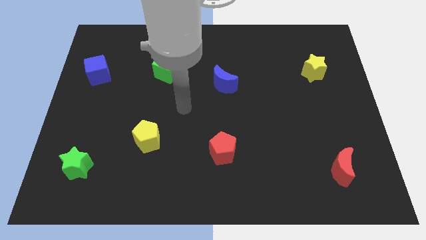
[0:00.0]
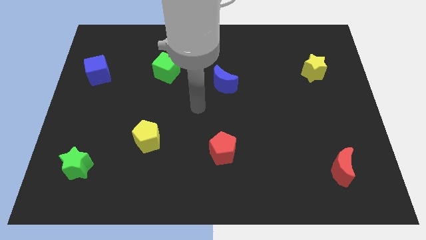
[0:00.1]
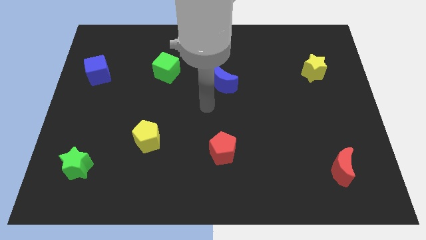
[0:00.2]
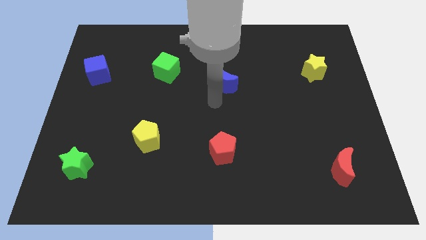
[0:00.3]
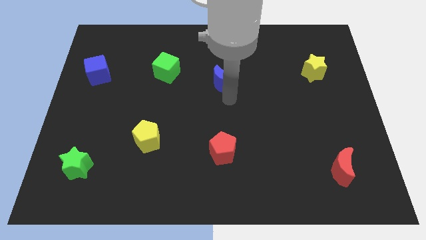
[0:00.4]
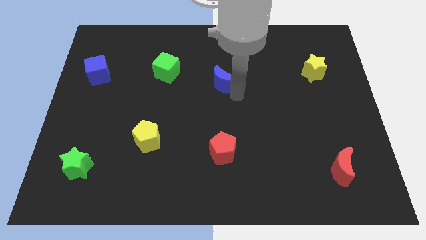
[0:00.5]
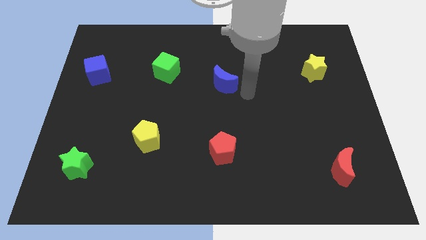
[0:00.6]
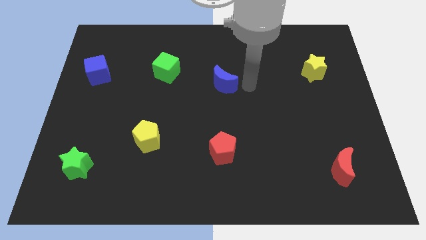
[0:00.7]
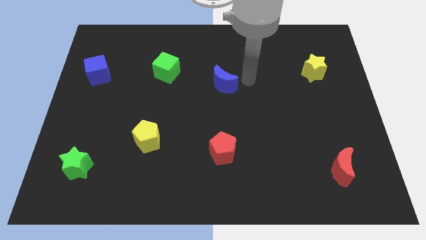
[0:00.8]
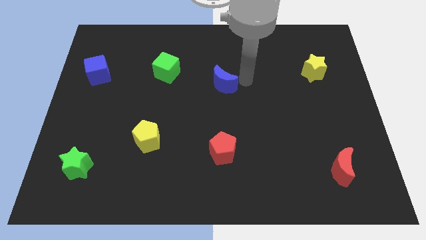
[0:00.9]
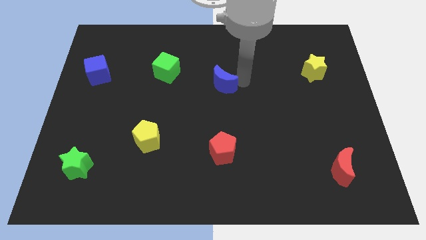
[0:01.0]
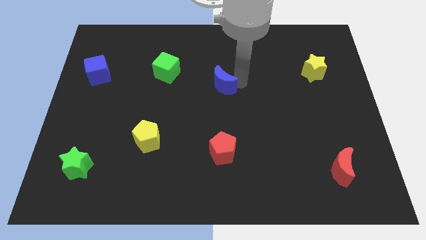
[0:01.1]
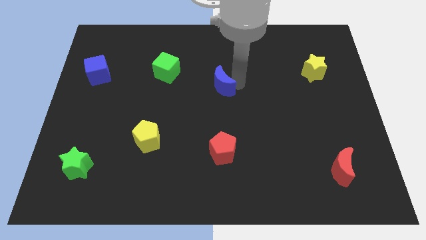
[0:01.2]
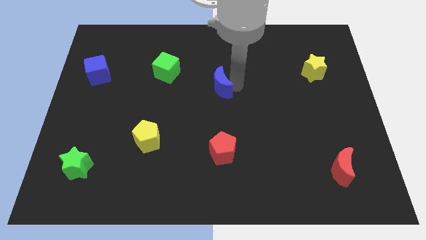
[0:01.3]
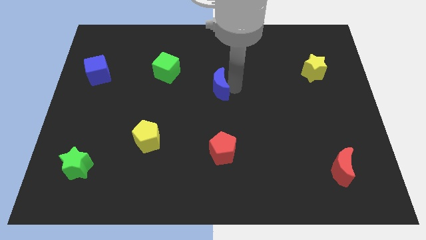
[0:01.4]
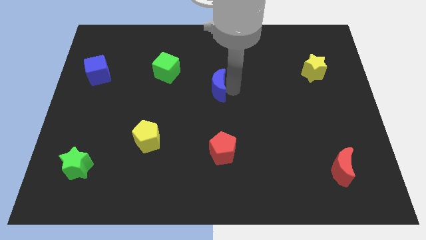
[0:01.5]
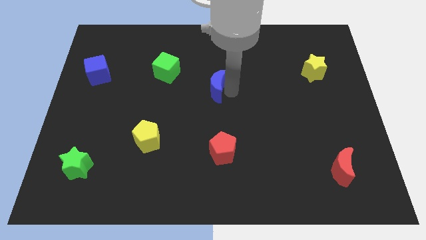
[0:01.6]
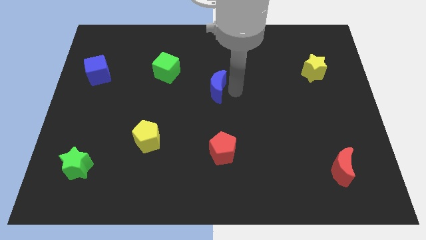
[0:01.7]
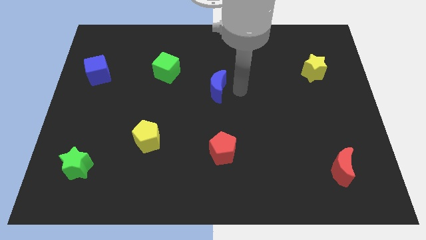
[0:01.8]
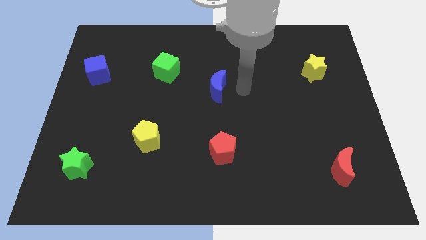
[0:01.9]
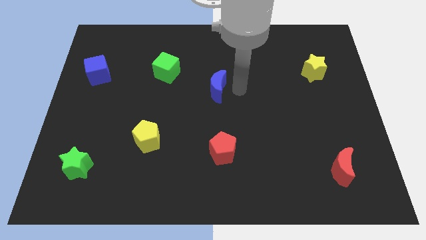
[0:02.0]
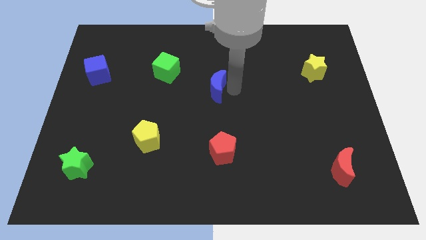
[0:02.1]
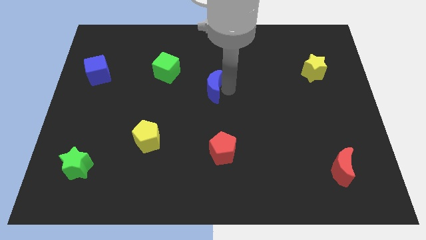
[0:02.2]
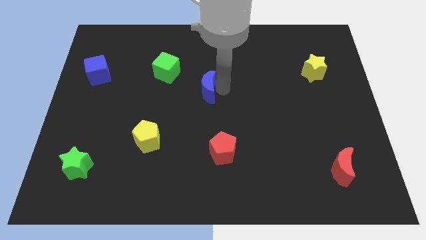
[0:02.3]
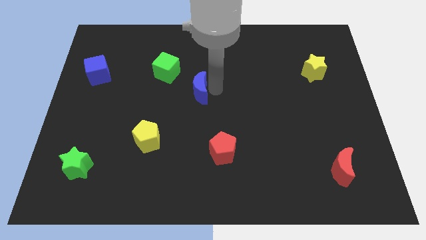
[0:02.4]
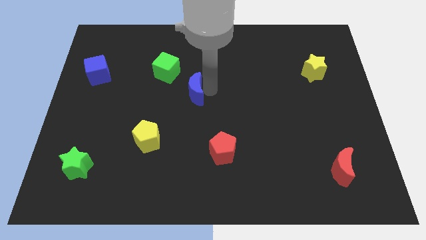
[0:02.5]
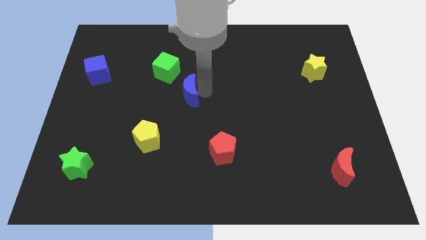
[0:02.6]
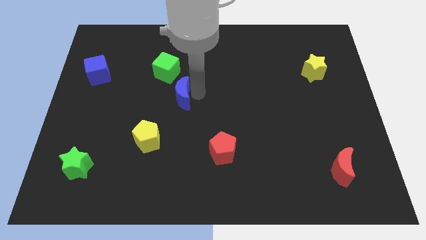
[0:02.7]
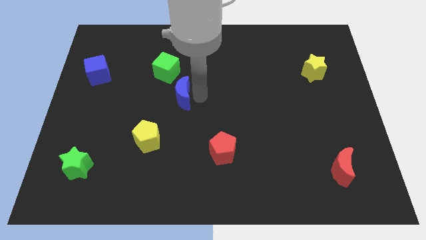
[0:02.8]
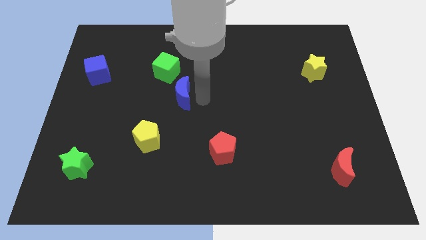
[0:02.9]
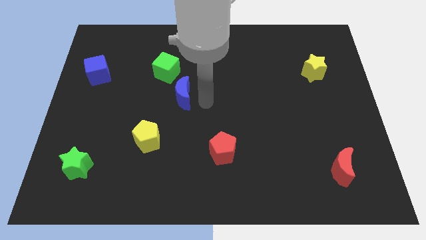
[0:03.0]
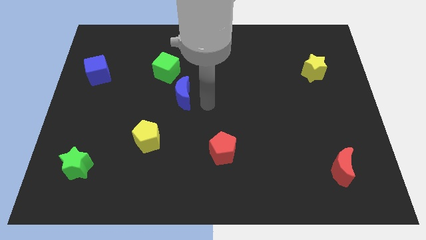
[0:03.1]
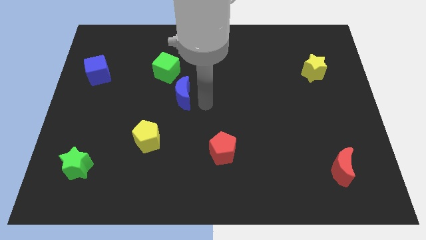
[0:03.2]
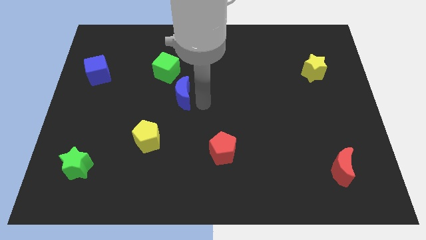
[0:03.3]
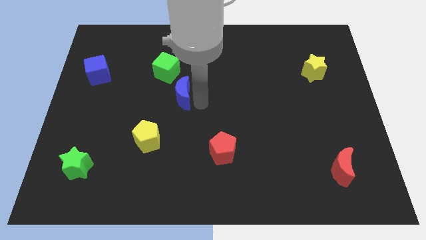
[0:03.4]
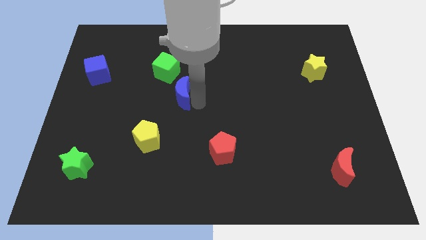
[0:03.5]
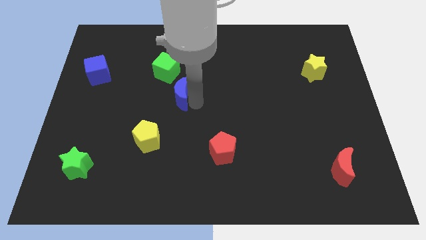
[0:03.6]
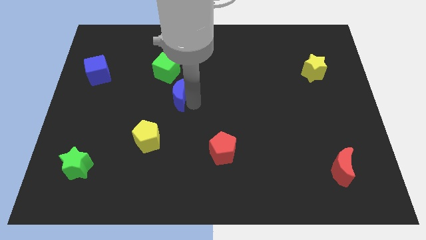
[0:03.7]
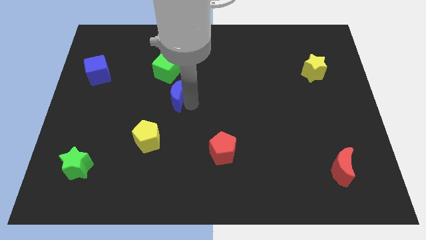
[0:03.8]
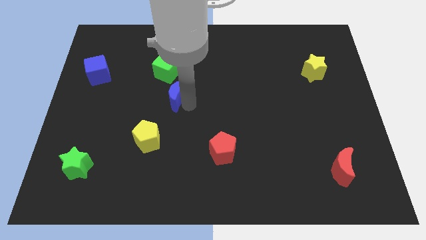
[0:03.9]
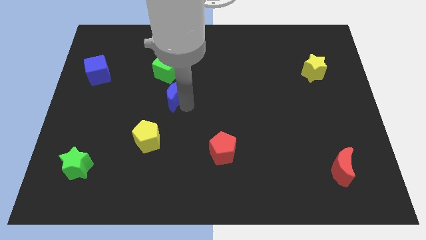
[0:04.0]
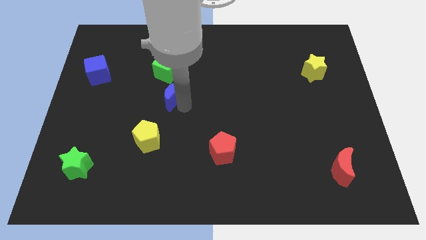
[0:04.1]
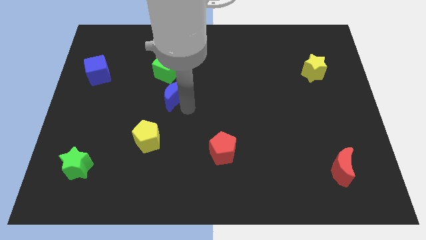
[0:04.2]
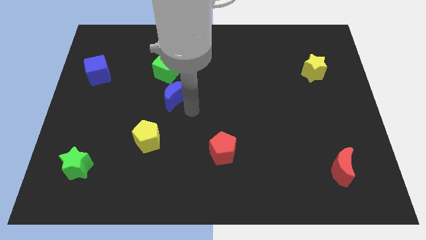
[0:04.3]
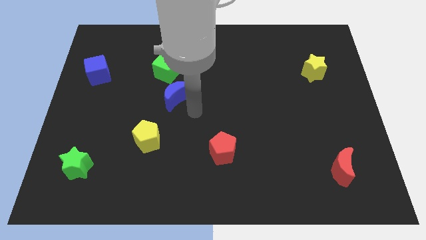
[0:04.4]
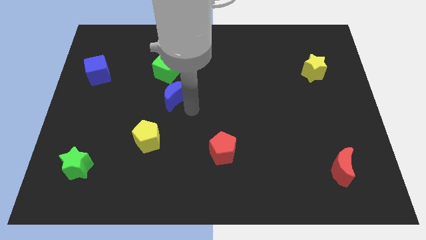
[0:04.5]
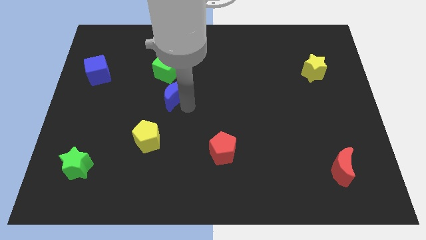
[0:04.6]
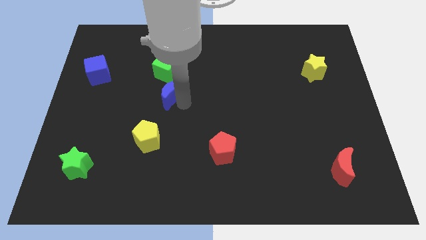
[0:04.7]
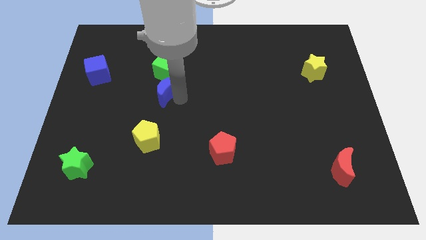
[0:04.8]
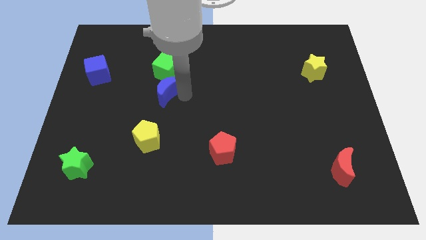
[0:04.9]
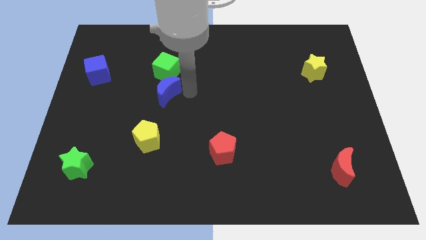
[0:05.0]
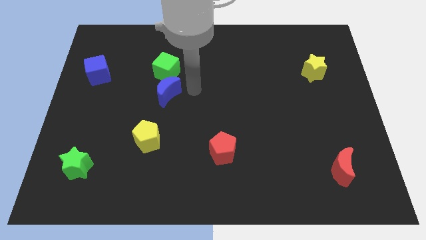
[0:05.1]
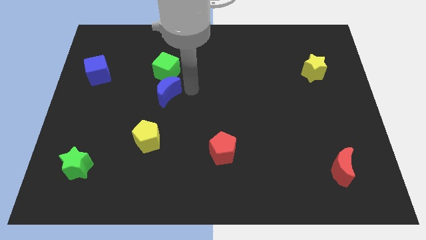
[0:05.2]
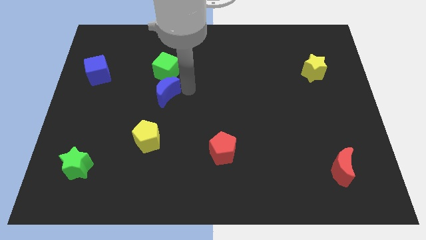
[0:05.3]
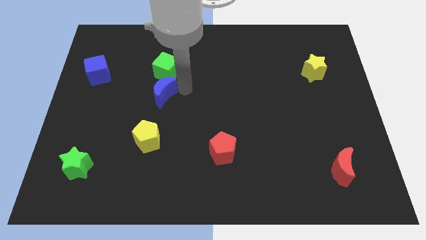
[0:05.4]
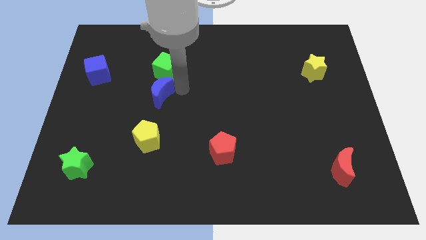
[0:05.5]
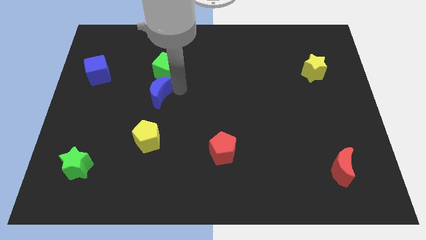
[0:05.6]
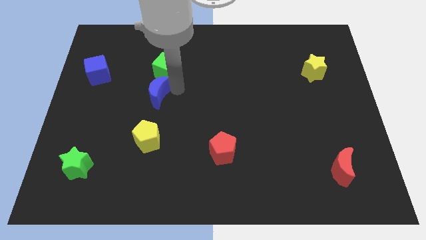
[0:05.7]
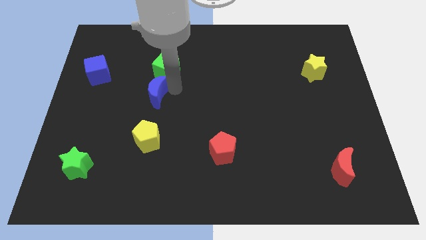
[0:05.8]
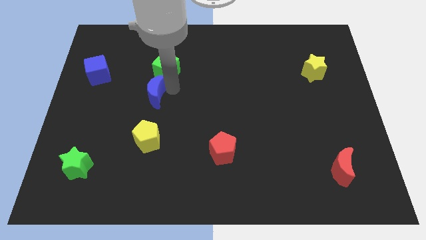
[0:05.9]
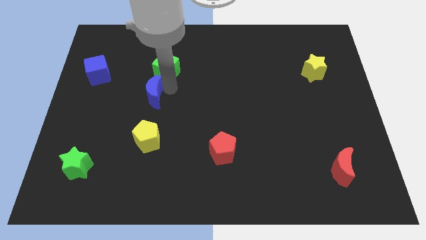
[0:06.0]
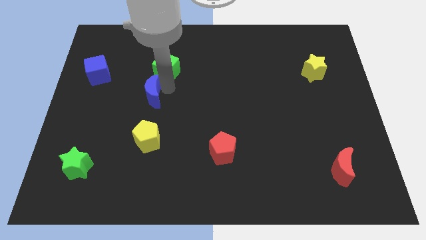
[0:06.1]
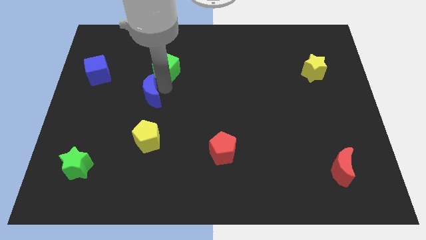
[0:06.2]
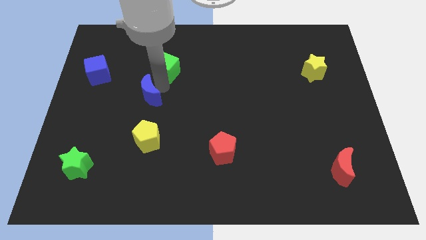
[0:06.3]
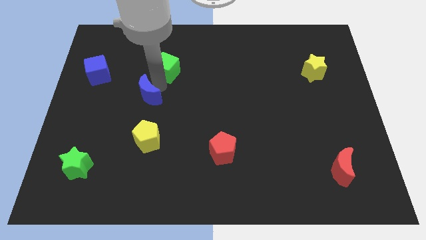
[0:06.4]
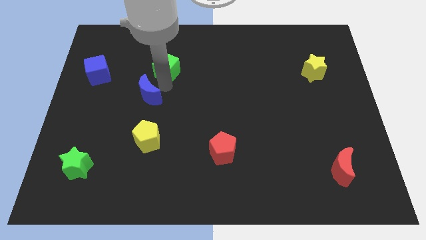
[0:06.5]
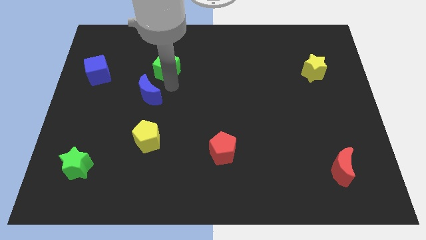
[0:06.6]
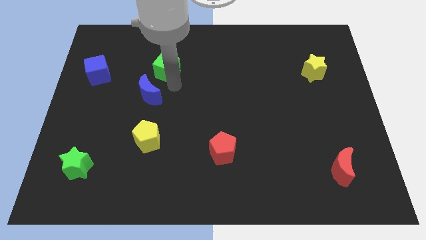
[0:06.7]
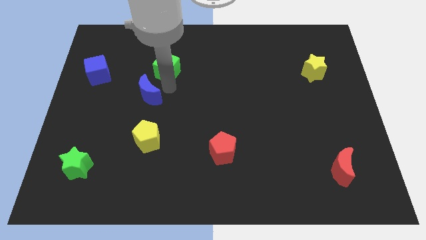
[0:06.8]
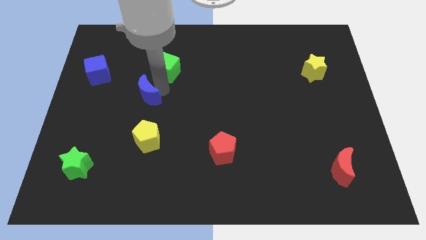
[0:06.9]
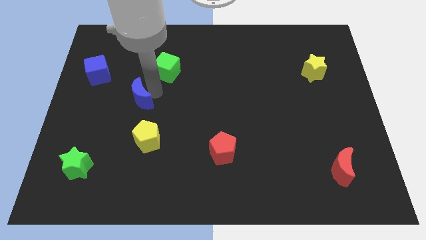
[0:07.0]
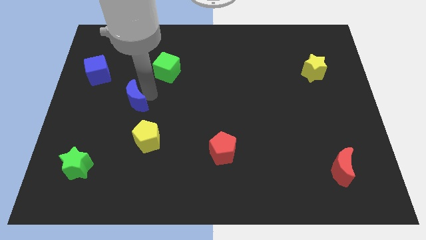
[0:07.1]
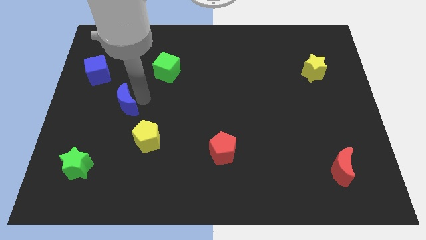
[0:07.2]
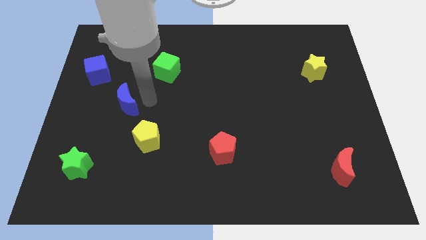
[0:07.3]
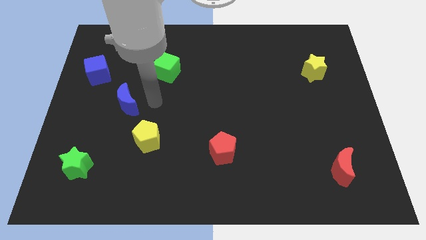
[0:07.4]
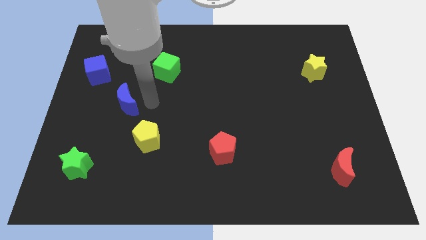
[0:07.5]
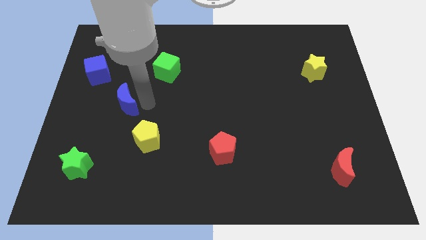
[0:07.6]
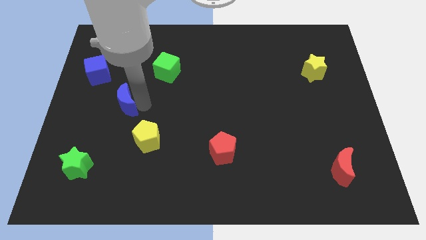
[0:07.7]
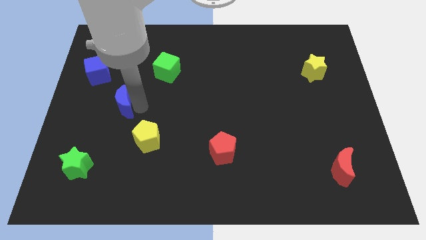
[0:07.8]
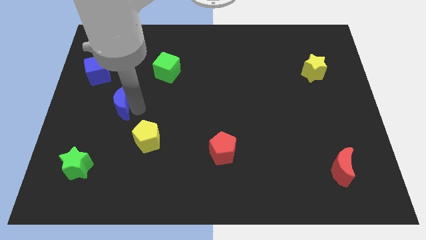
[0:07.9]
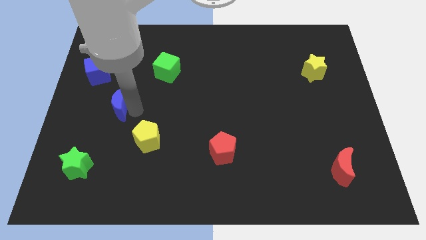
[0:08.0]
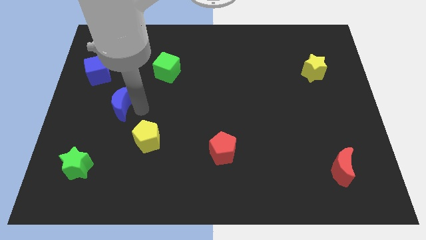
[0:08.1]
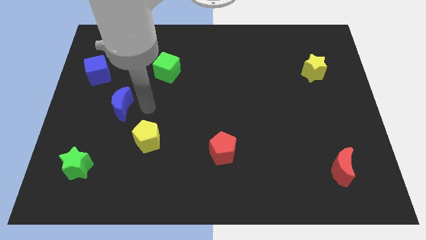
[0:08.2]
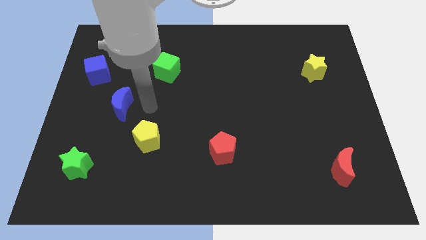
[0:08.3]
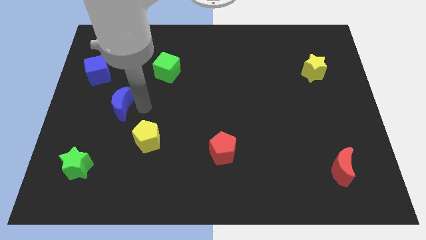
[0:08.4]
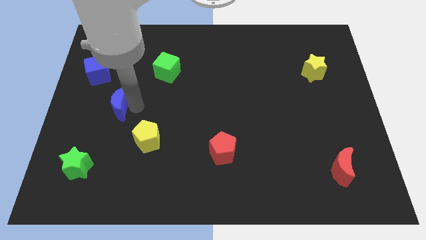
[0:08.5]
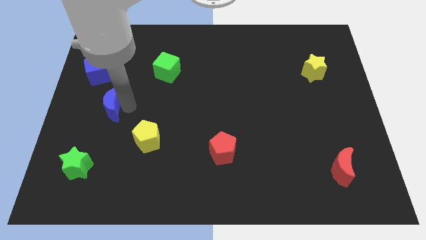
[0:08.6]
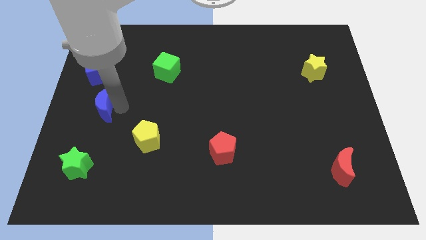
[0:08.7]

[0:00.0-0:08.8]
push the blue moon to the bottom side of the blue cube
